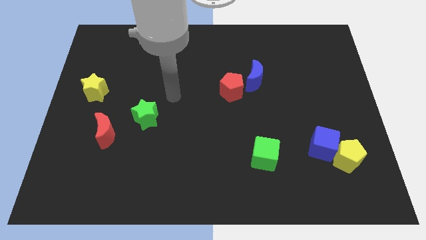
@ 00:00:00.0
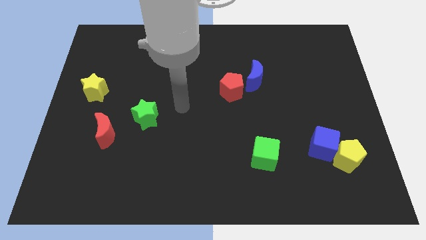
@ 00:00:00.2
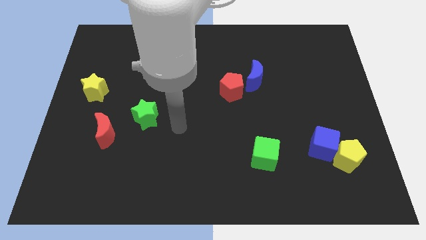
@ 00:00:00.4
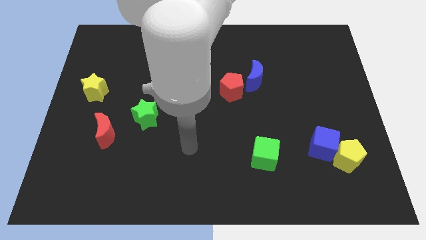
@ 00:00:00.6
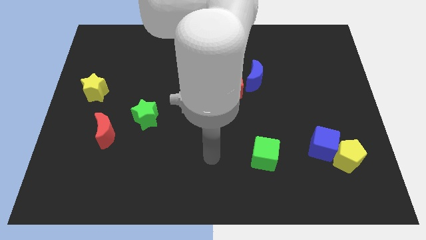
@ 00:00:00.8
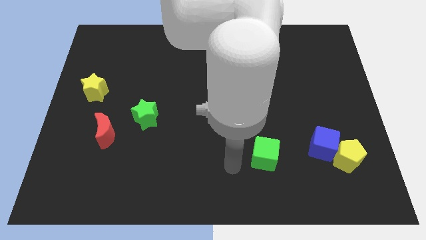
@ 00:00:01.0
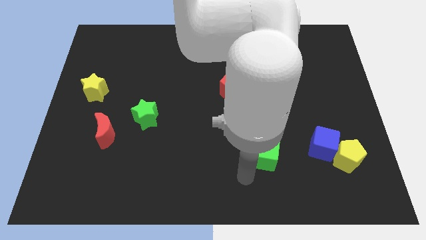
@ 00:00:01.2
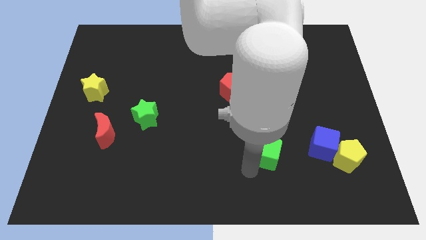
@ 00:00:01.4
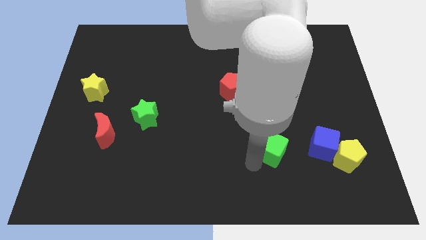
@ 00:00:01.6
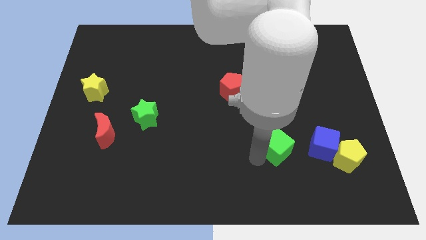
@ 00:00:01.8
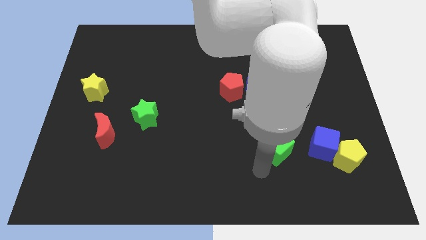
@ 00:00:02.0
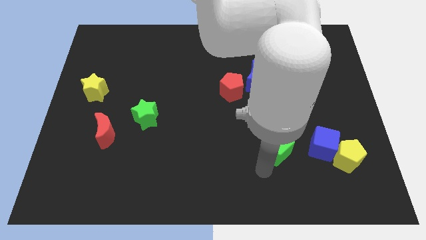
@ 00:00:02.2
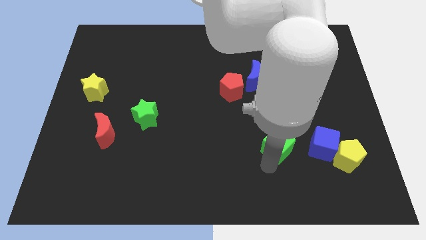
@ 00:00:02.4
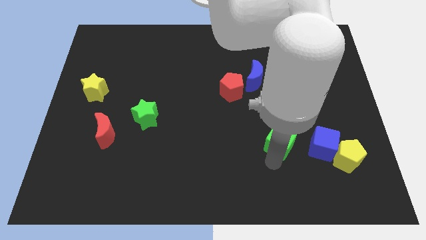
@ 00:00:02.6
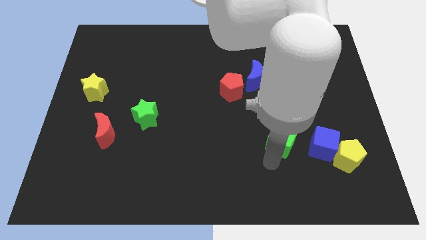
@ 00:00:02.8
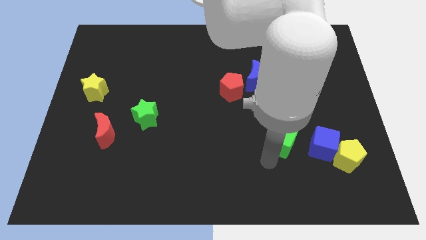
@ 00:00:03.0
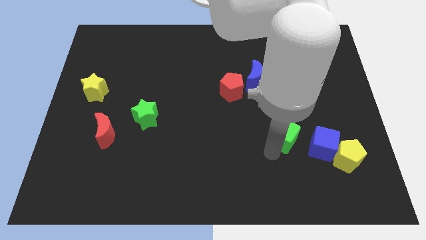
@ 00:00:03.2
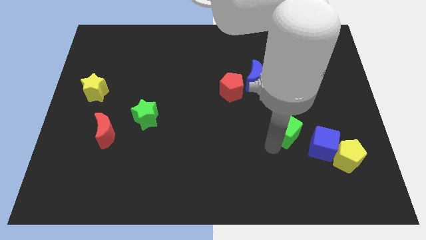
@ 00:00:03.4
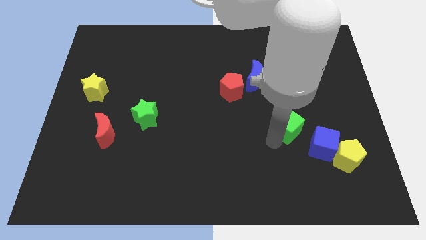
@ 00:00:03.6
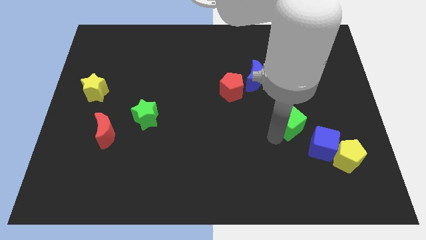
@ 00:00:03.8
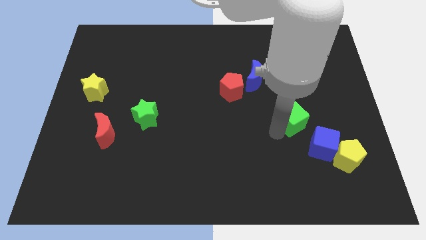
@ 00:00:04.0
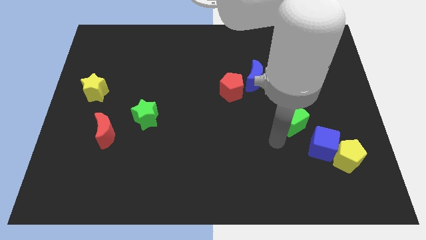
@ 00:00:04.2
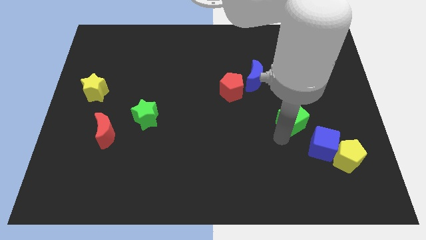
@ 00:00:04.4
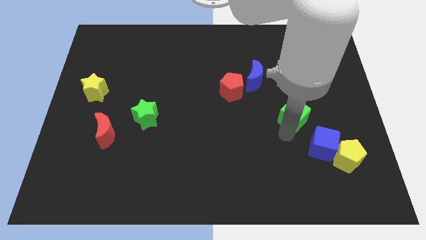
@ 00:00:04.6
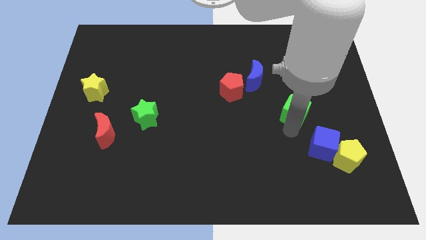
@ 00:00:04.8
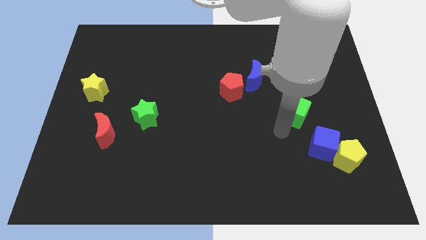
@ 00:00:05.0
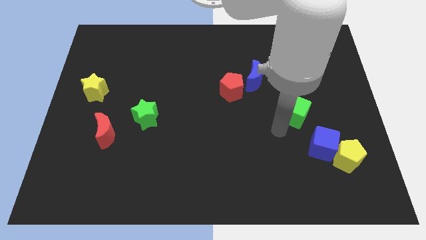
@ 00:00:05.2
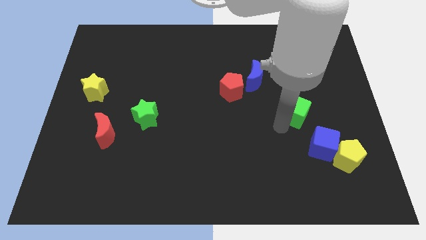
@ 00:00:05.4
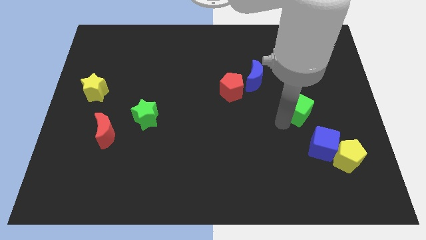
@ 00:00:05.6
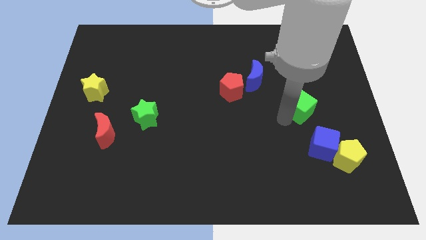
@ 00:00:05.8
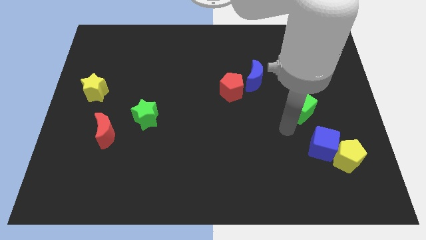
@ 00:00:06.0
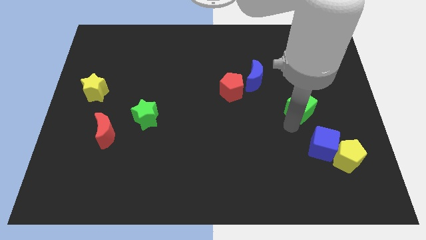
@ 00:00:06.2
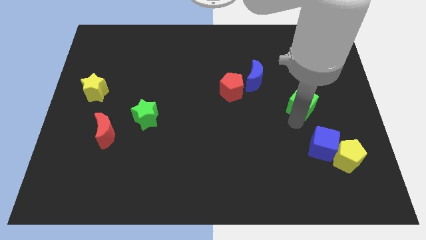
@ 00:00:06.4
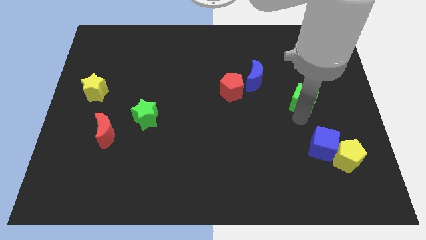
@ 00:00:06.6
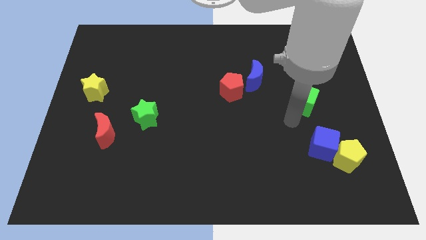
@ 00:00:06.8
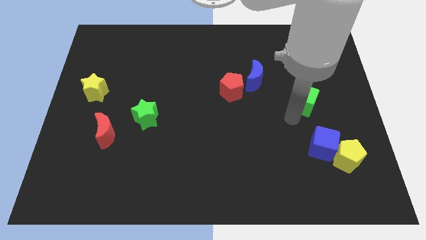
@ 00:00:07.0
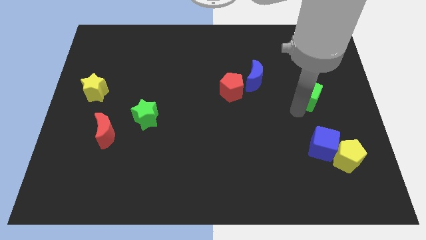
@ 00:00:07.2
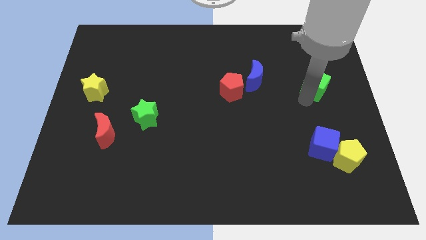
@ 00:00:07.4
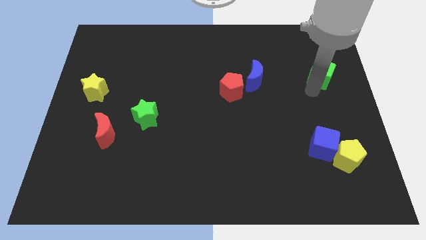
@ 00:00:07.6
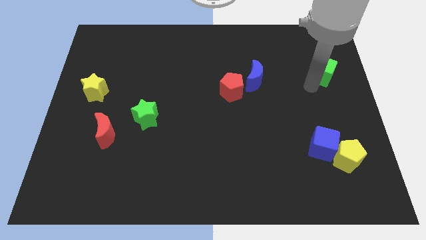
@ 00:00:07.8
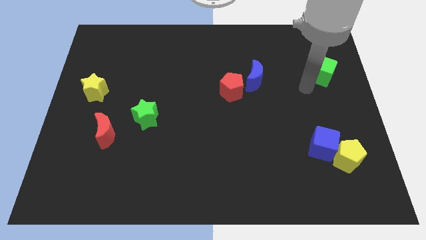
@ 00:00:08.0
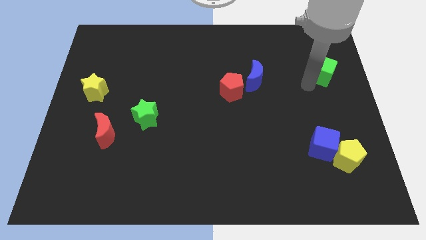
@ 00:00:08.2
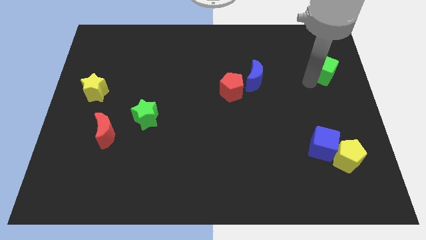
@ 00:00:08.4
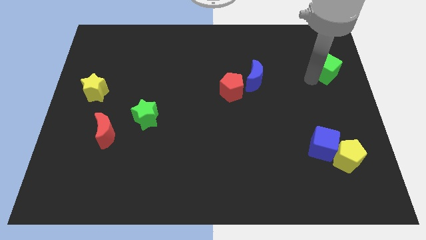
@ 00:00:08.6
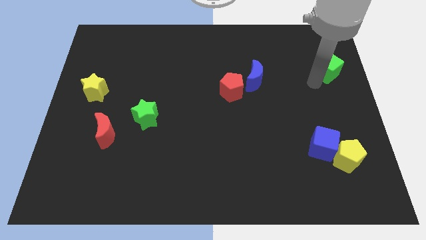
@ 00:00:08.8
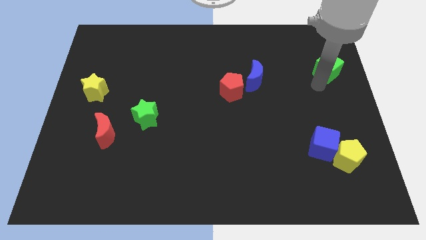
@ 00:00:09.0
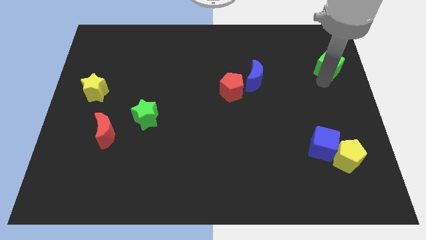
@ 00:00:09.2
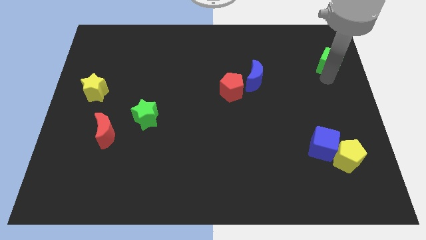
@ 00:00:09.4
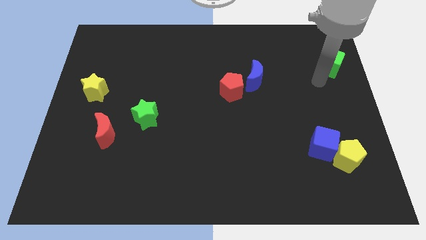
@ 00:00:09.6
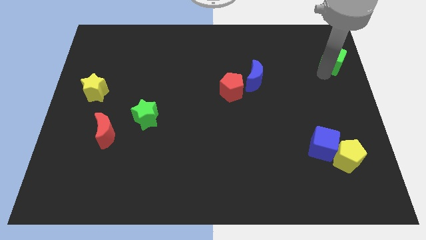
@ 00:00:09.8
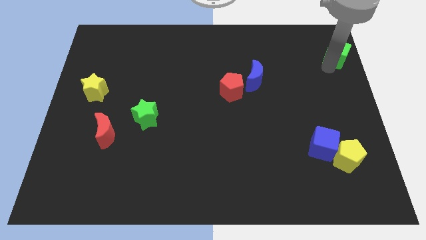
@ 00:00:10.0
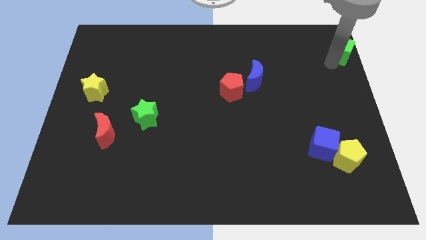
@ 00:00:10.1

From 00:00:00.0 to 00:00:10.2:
slide the green cube to the top right corner
